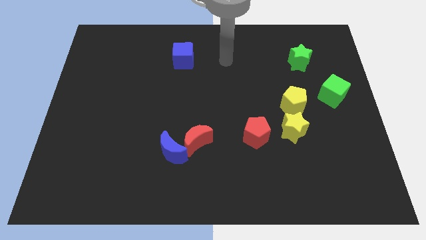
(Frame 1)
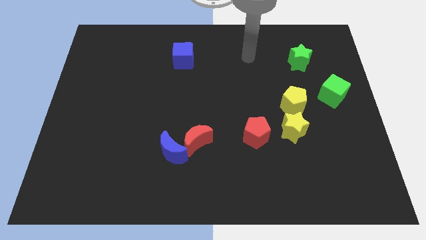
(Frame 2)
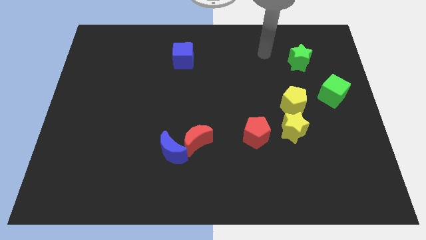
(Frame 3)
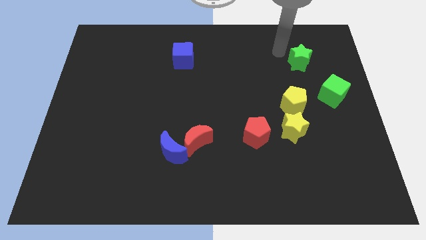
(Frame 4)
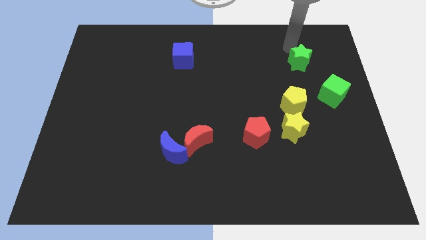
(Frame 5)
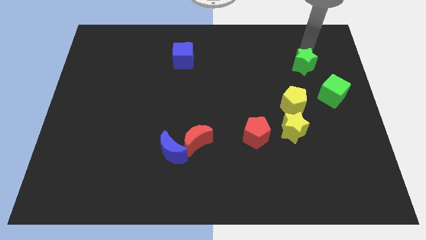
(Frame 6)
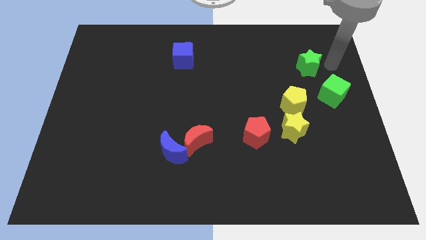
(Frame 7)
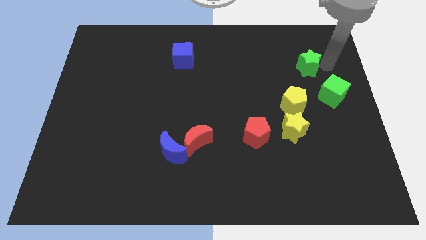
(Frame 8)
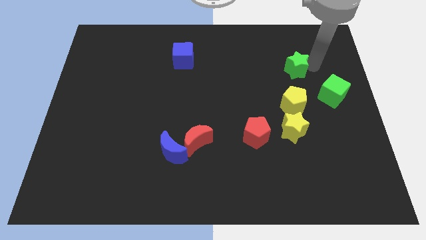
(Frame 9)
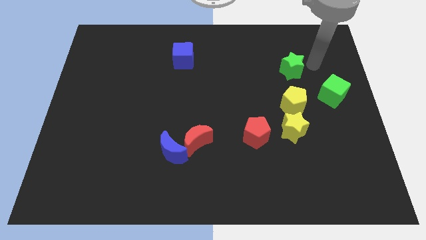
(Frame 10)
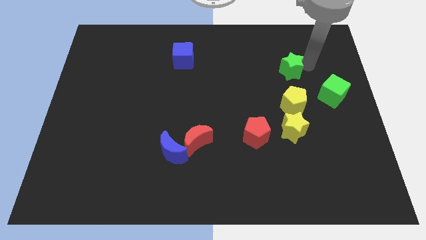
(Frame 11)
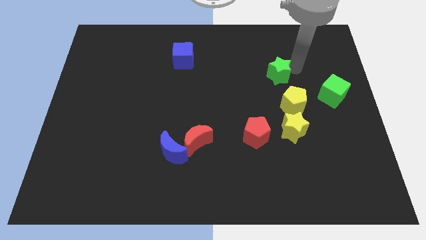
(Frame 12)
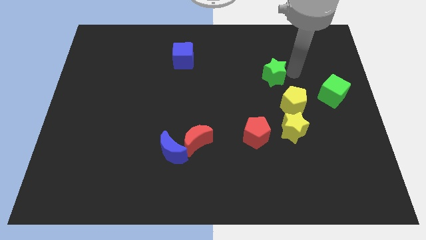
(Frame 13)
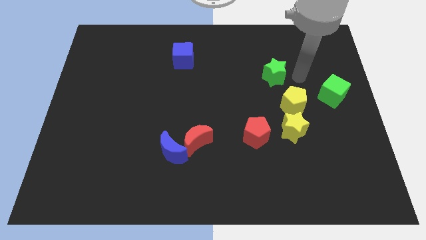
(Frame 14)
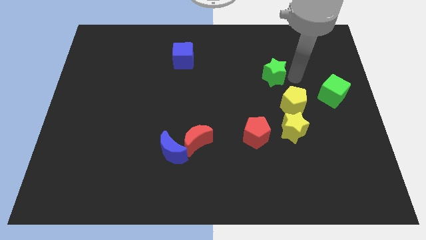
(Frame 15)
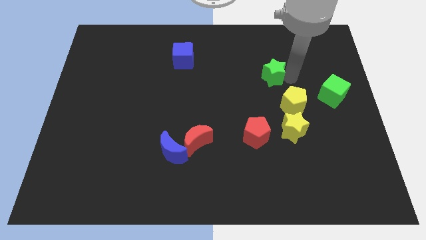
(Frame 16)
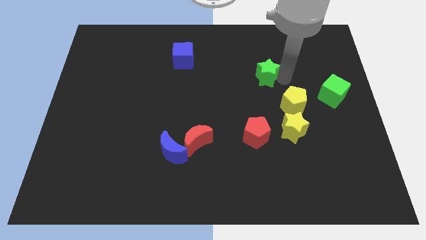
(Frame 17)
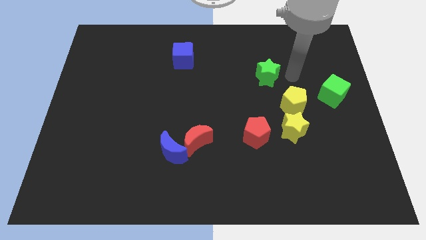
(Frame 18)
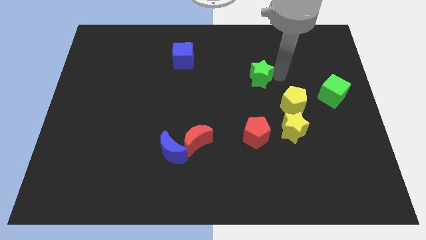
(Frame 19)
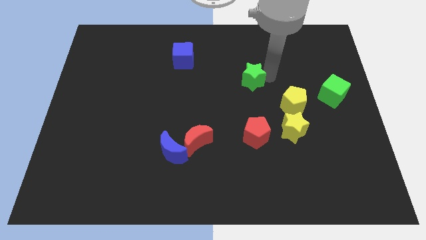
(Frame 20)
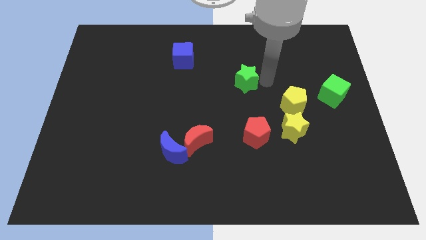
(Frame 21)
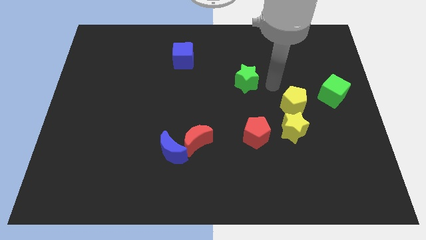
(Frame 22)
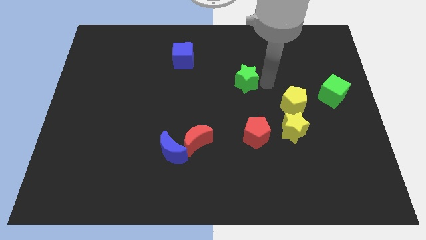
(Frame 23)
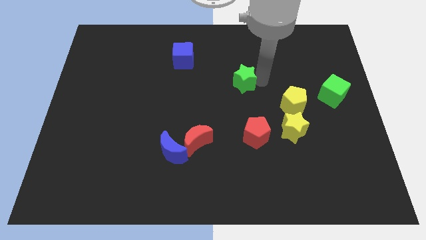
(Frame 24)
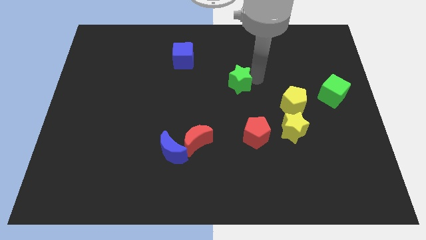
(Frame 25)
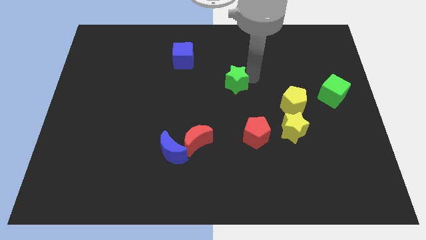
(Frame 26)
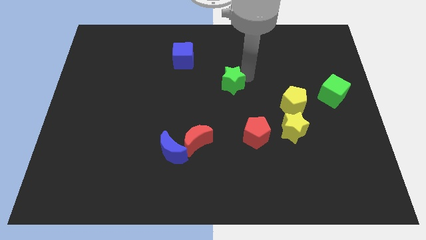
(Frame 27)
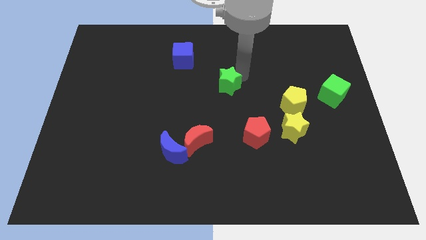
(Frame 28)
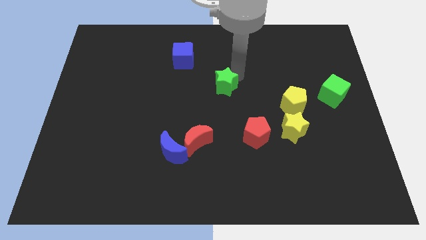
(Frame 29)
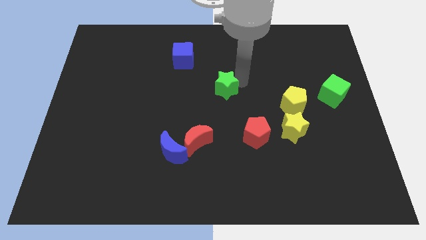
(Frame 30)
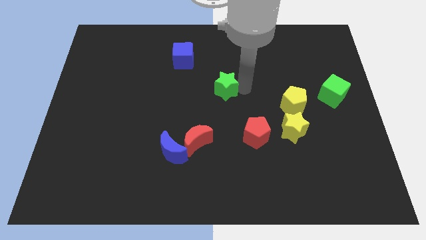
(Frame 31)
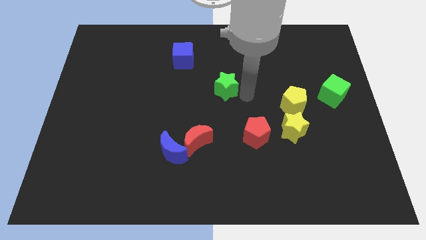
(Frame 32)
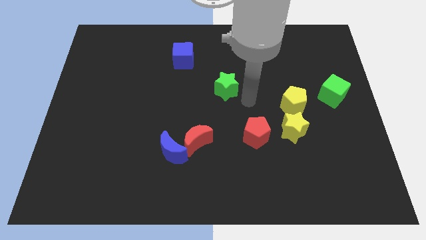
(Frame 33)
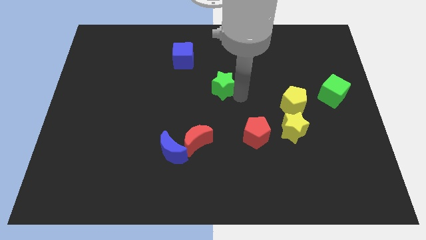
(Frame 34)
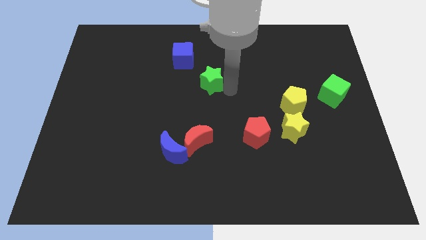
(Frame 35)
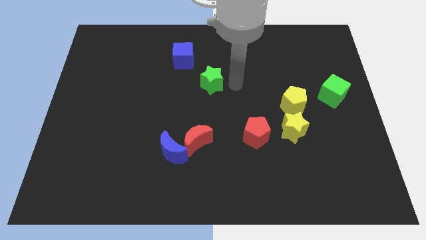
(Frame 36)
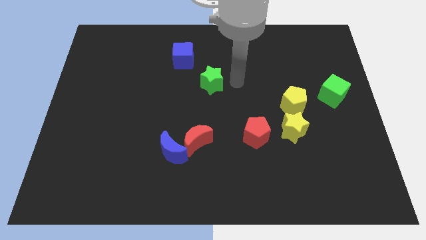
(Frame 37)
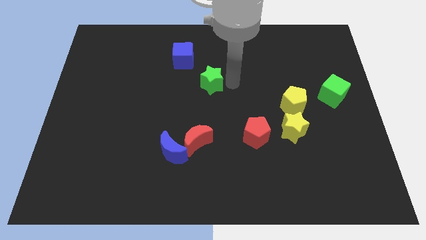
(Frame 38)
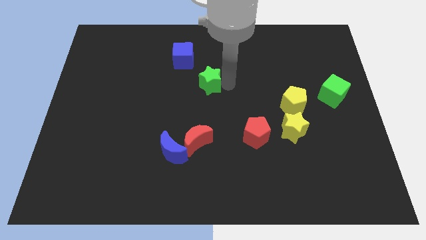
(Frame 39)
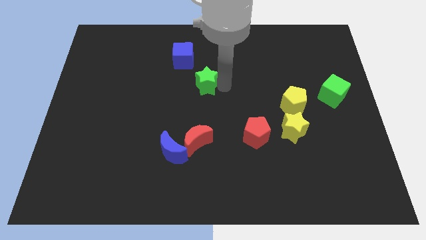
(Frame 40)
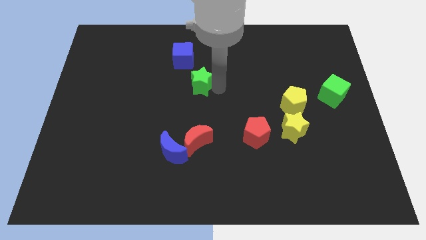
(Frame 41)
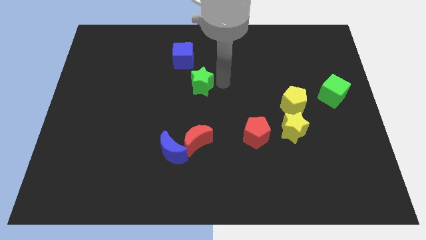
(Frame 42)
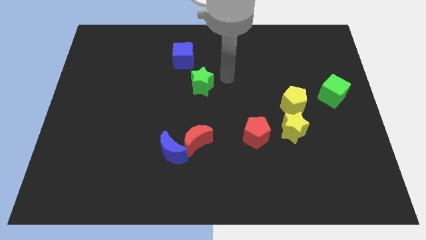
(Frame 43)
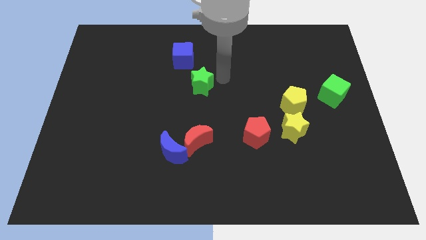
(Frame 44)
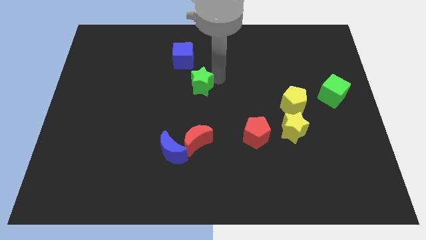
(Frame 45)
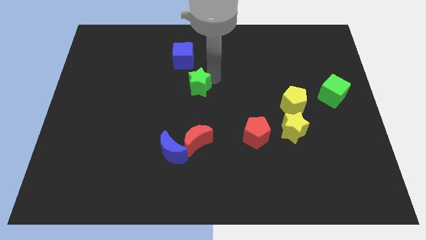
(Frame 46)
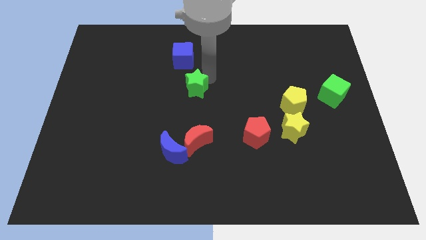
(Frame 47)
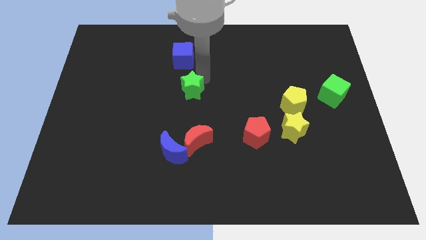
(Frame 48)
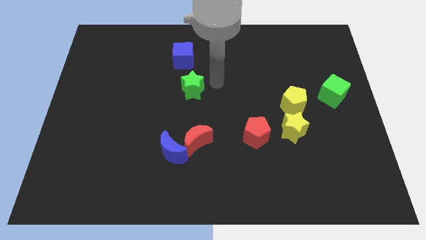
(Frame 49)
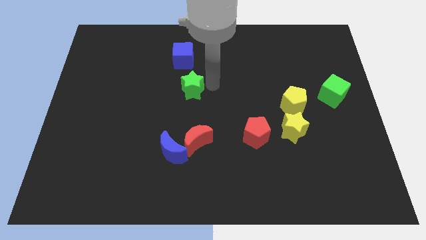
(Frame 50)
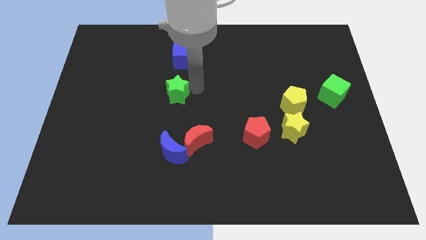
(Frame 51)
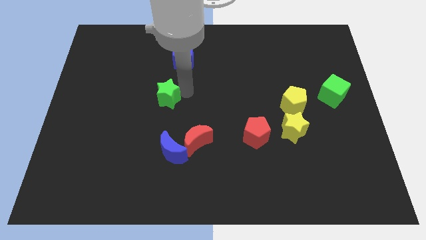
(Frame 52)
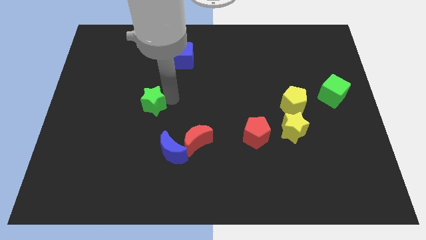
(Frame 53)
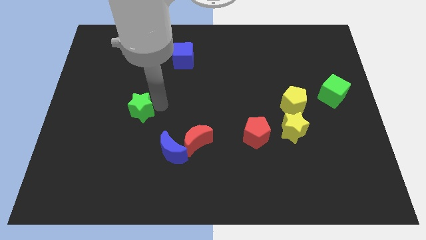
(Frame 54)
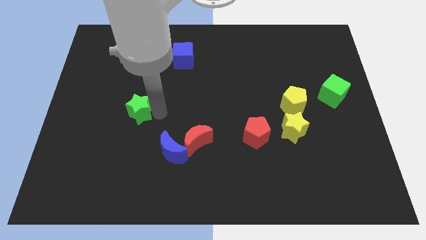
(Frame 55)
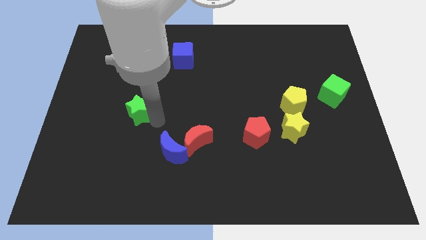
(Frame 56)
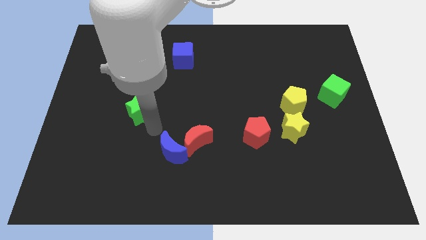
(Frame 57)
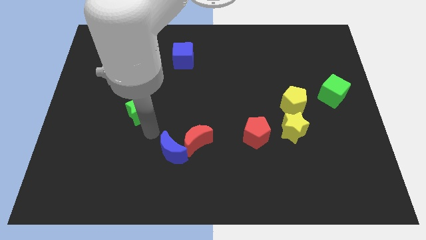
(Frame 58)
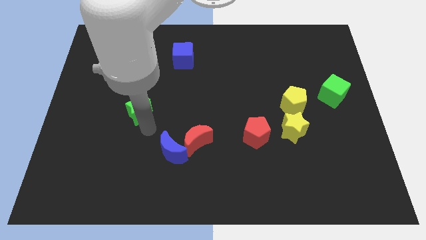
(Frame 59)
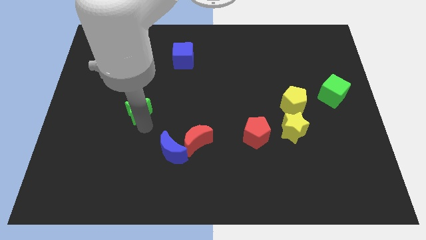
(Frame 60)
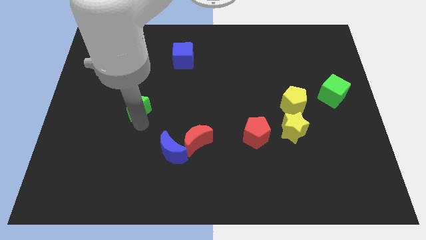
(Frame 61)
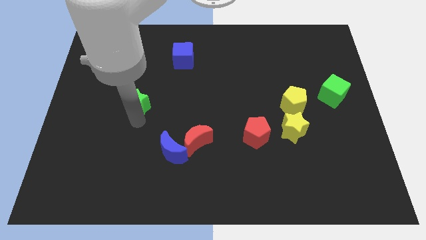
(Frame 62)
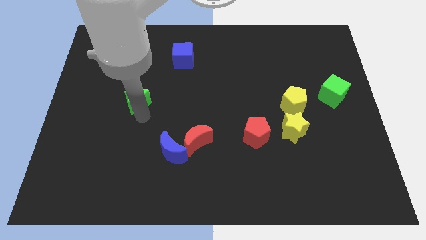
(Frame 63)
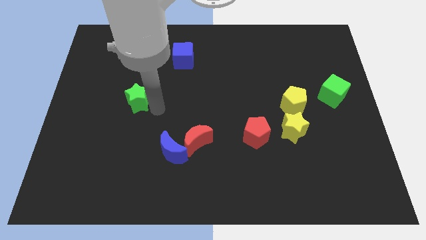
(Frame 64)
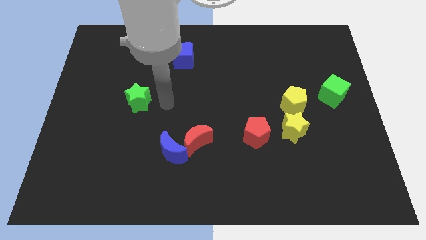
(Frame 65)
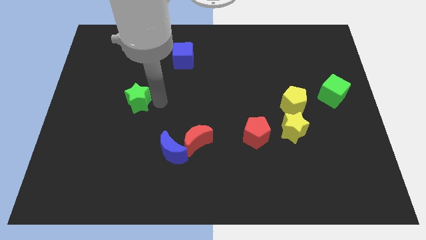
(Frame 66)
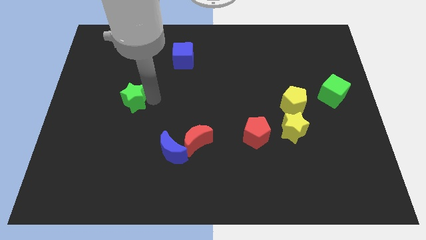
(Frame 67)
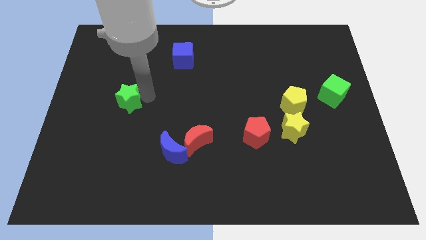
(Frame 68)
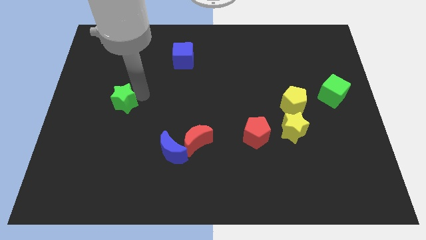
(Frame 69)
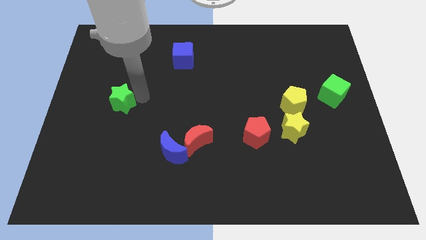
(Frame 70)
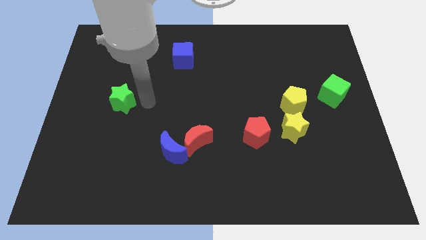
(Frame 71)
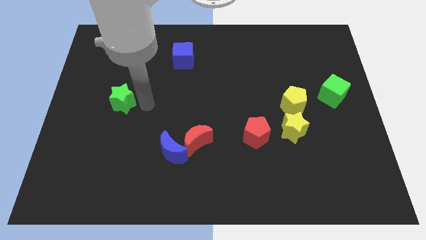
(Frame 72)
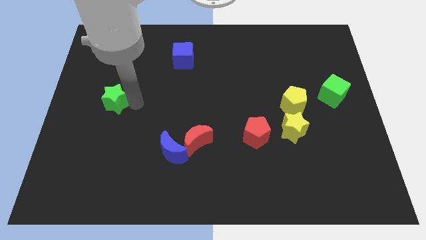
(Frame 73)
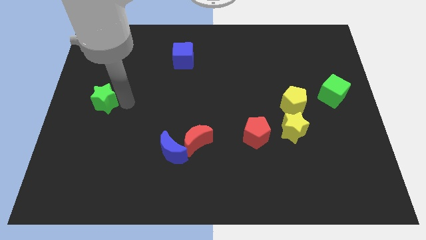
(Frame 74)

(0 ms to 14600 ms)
slide the green star to the left side of the board
